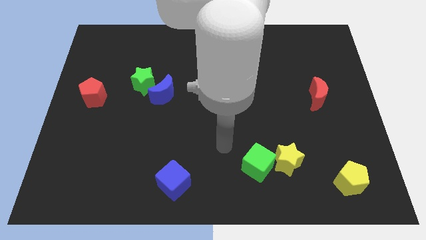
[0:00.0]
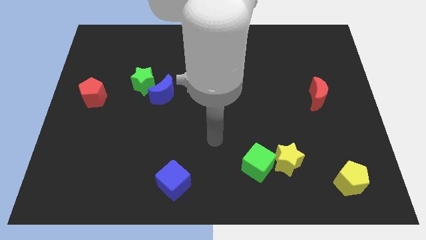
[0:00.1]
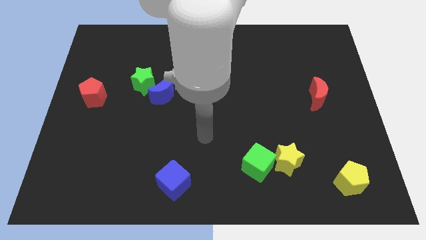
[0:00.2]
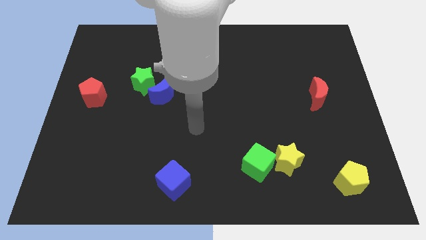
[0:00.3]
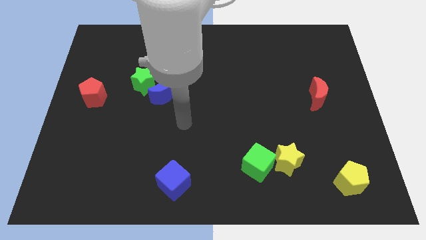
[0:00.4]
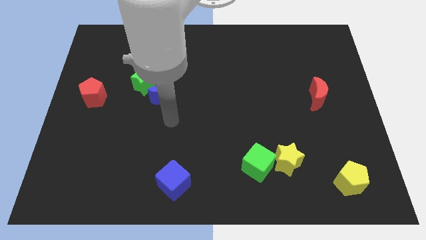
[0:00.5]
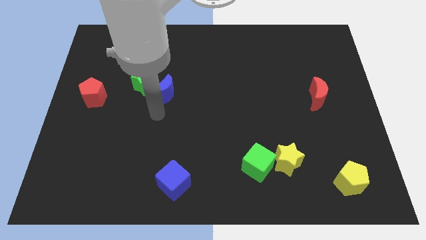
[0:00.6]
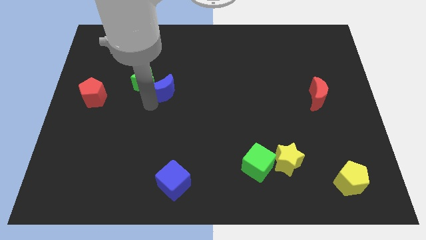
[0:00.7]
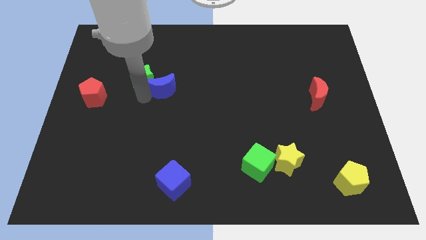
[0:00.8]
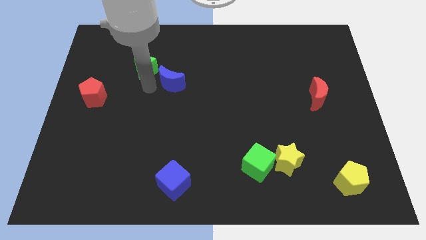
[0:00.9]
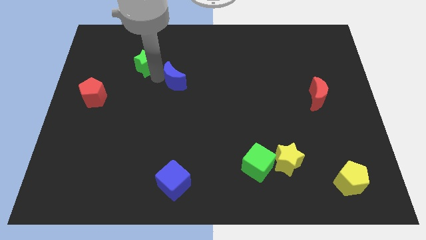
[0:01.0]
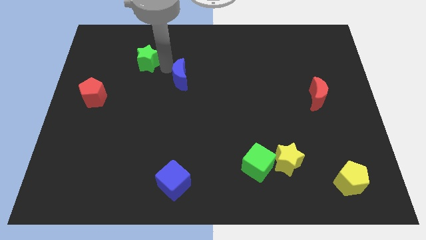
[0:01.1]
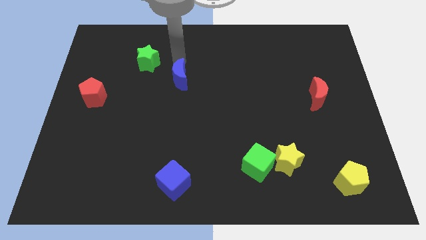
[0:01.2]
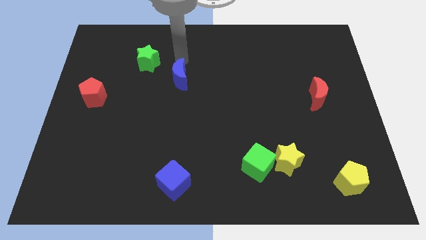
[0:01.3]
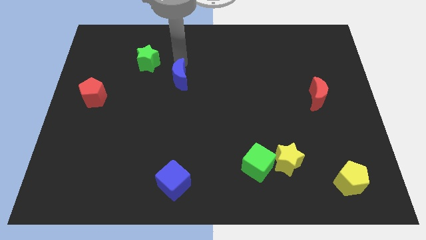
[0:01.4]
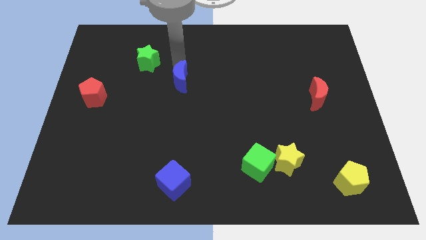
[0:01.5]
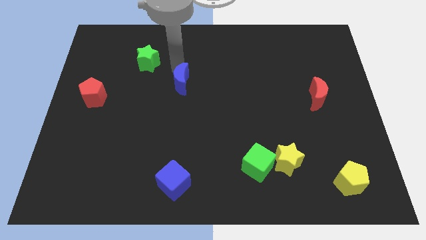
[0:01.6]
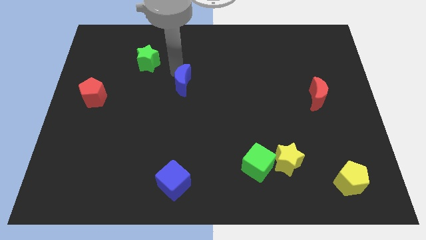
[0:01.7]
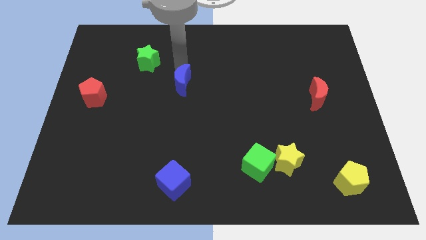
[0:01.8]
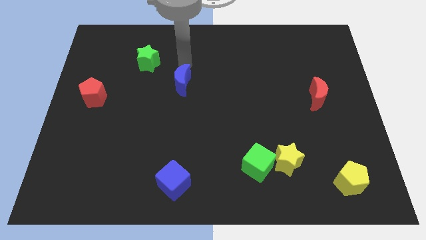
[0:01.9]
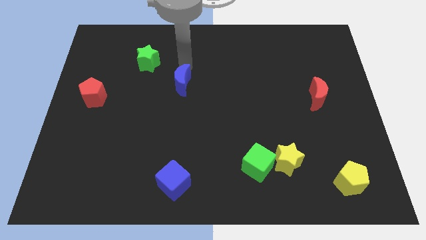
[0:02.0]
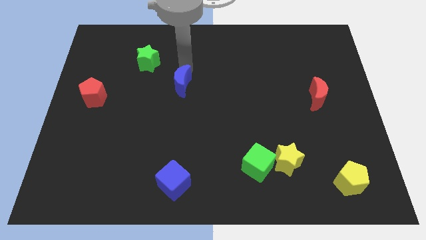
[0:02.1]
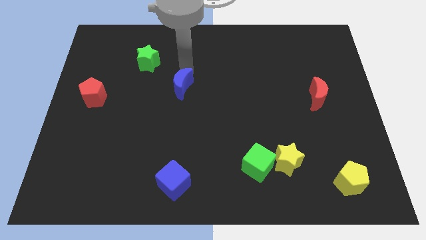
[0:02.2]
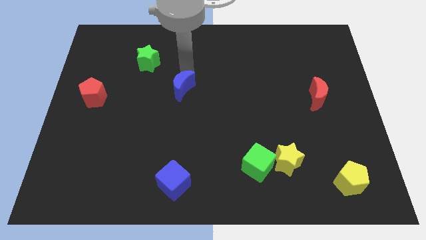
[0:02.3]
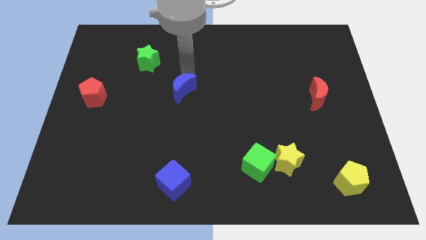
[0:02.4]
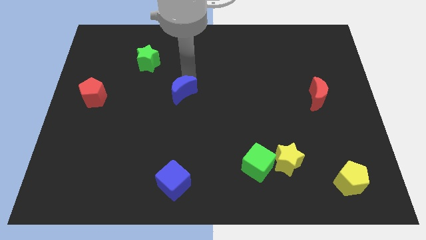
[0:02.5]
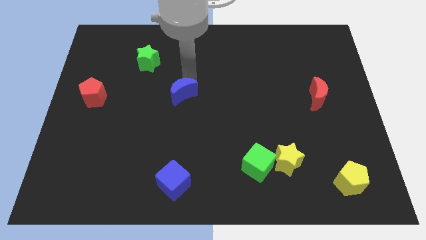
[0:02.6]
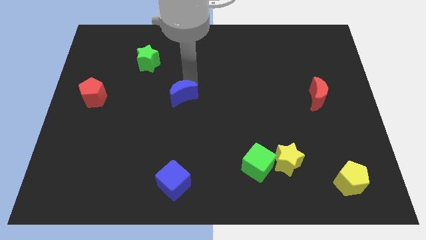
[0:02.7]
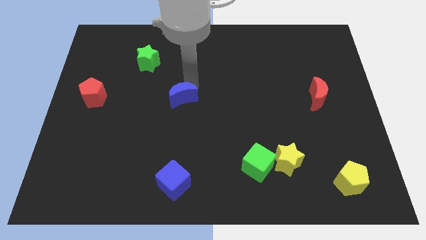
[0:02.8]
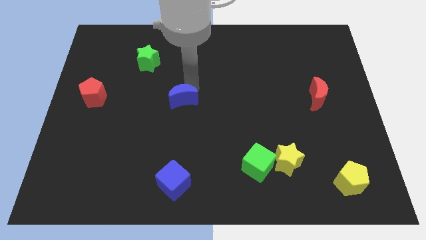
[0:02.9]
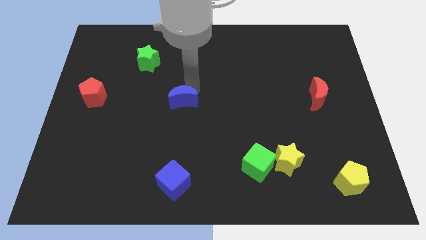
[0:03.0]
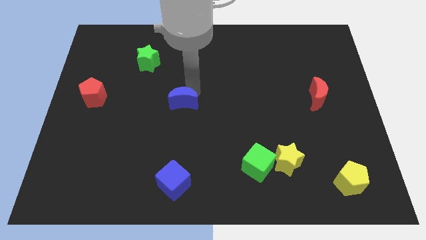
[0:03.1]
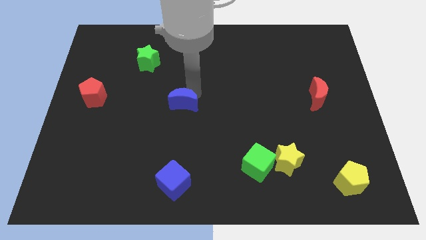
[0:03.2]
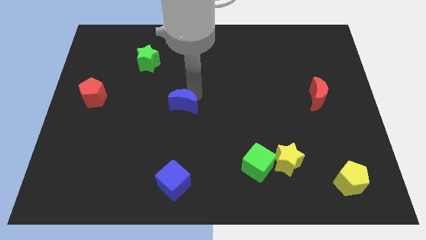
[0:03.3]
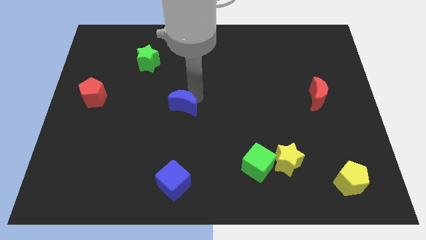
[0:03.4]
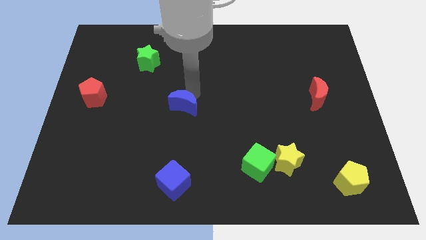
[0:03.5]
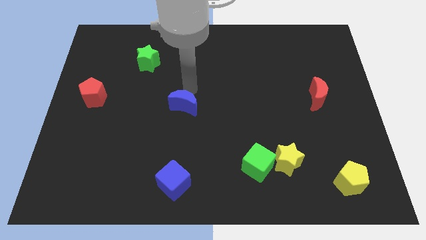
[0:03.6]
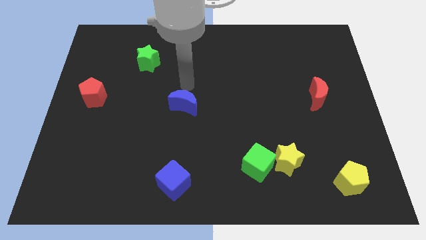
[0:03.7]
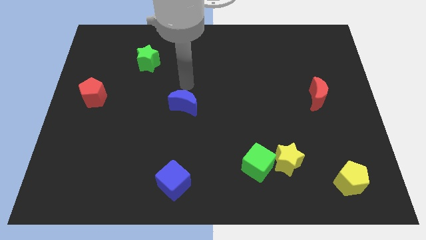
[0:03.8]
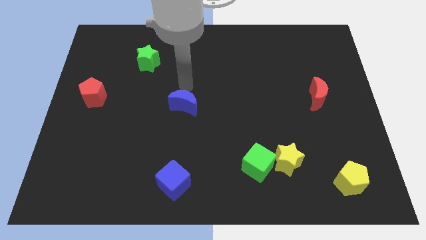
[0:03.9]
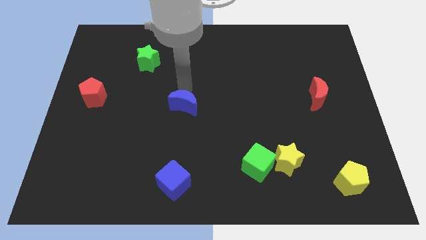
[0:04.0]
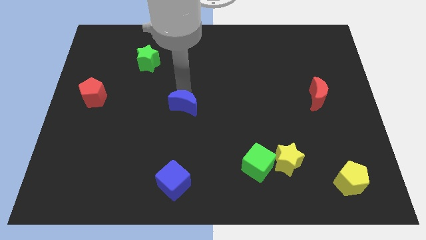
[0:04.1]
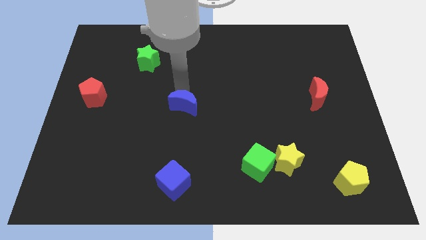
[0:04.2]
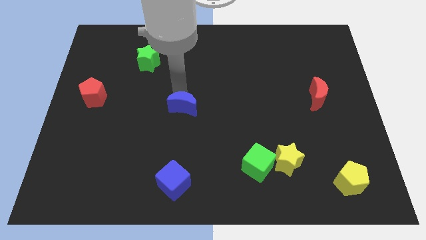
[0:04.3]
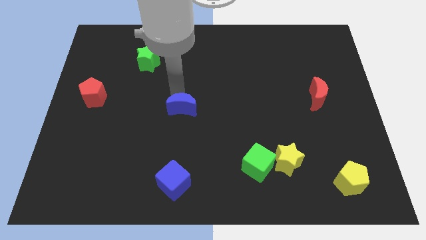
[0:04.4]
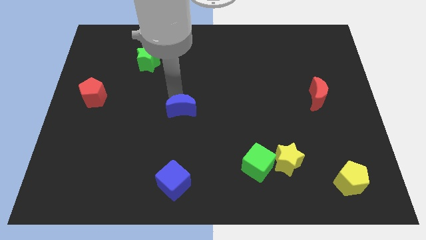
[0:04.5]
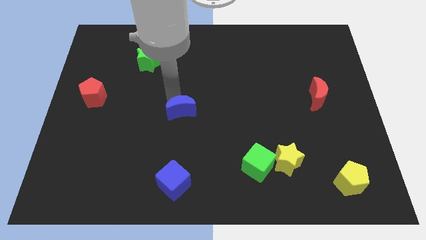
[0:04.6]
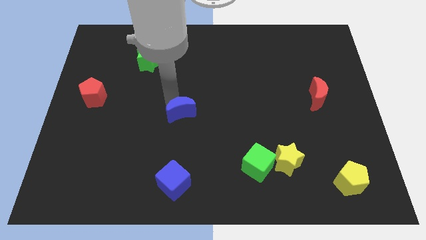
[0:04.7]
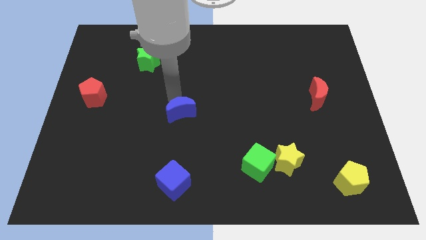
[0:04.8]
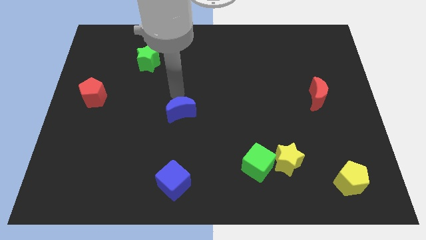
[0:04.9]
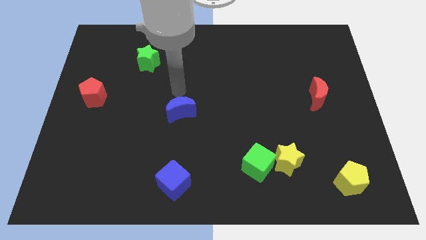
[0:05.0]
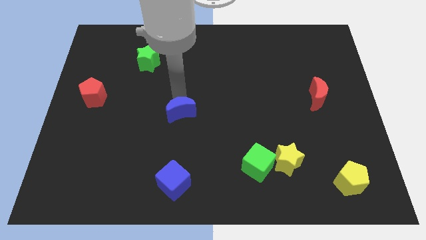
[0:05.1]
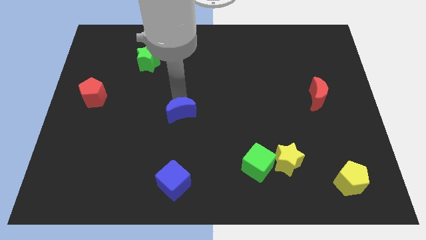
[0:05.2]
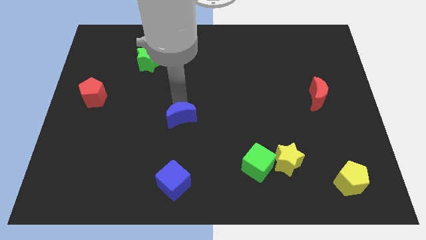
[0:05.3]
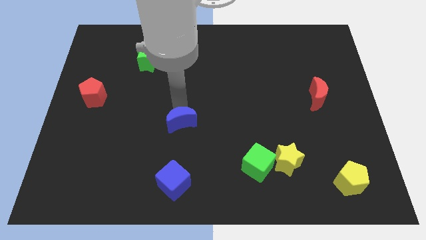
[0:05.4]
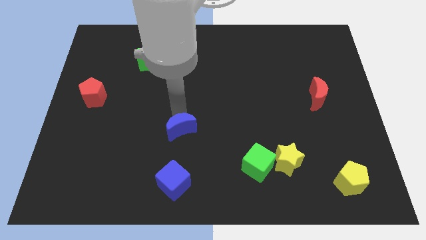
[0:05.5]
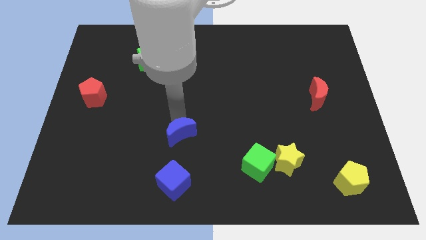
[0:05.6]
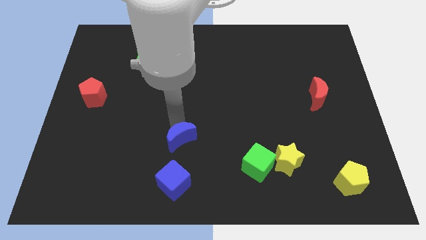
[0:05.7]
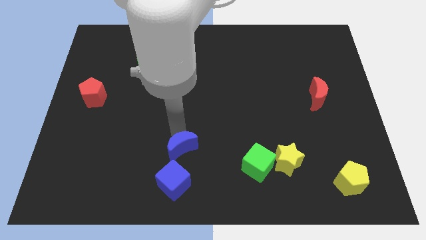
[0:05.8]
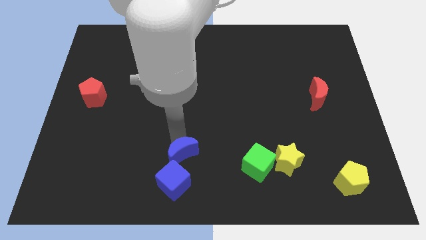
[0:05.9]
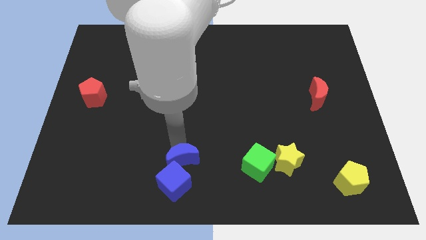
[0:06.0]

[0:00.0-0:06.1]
push the blue moon to the bottom side
